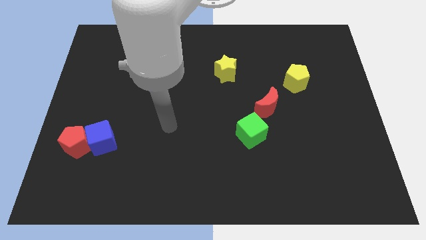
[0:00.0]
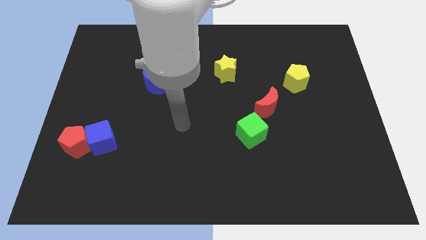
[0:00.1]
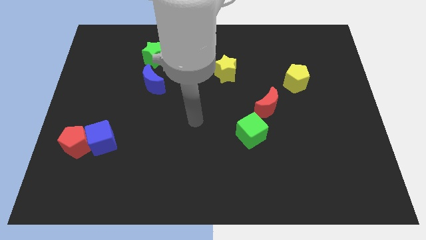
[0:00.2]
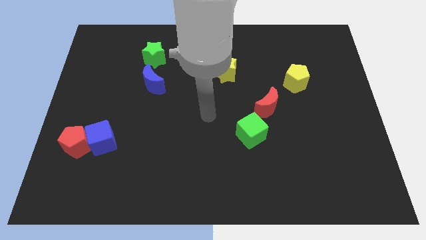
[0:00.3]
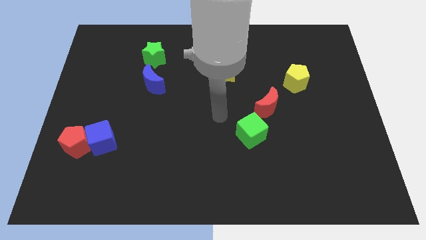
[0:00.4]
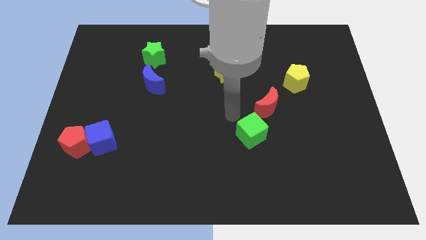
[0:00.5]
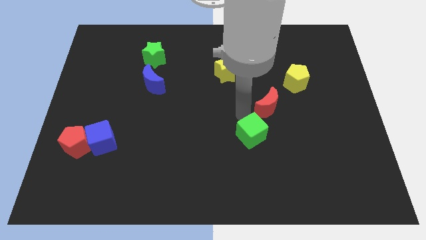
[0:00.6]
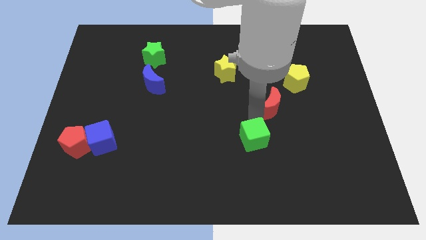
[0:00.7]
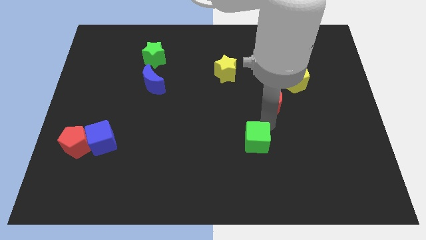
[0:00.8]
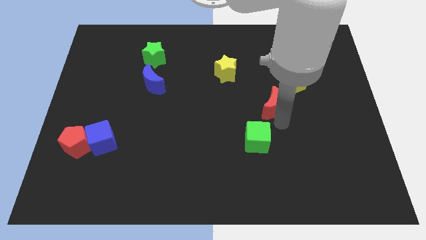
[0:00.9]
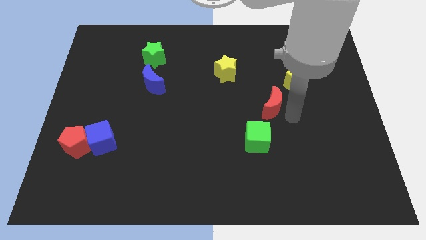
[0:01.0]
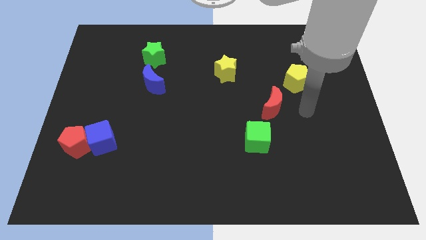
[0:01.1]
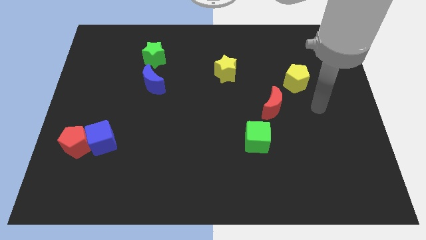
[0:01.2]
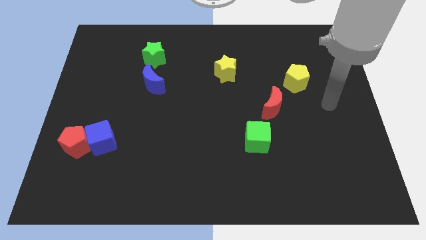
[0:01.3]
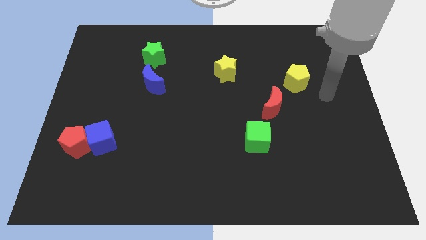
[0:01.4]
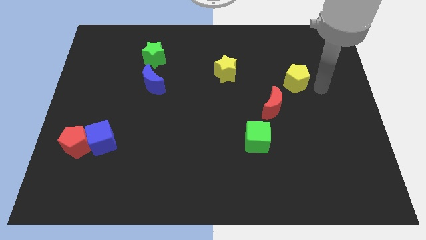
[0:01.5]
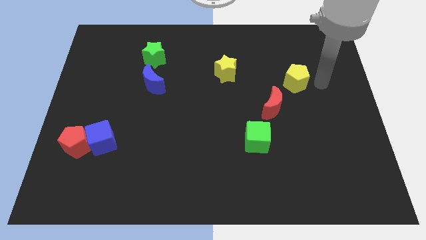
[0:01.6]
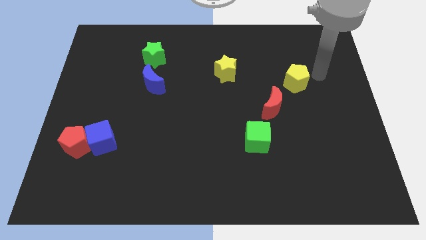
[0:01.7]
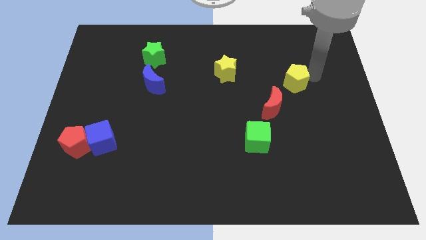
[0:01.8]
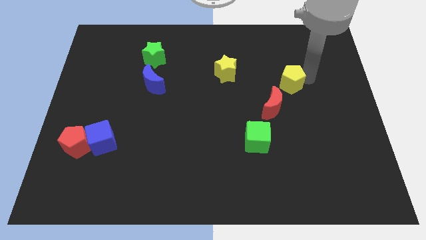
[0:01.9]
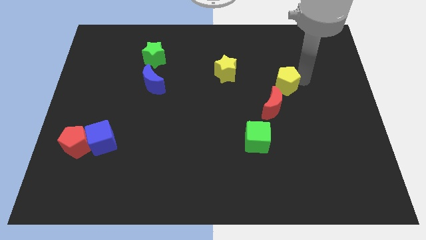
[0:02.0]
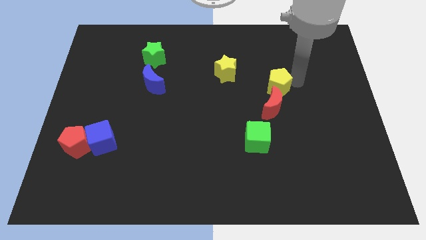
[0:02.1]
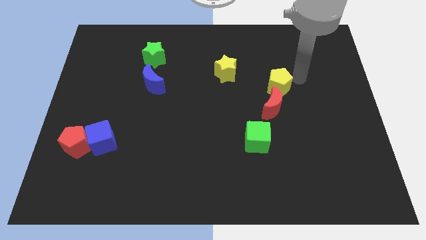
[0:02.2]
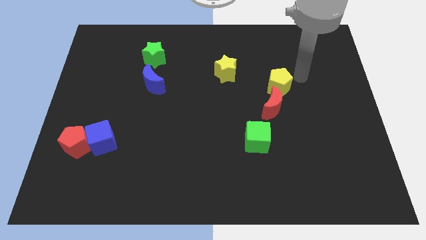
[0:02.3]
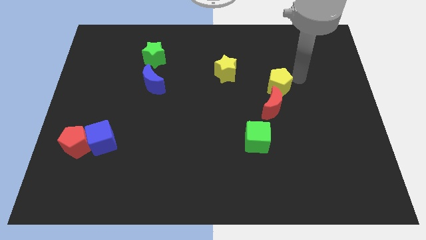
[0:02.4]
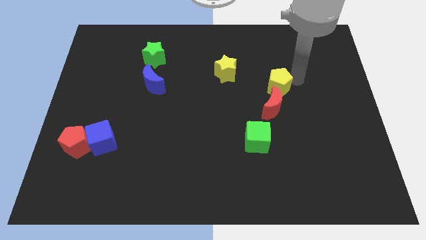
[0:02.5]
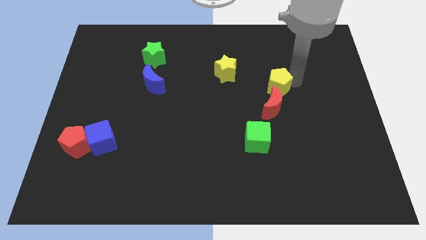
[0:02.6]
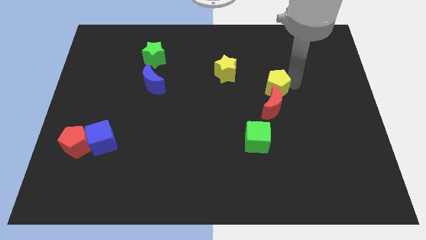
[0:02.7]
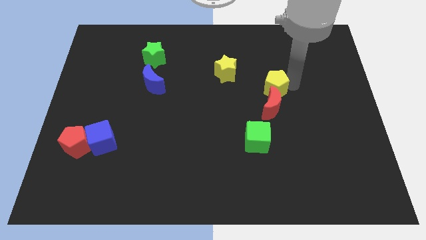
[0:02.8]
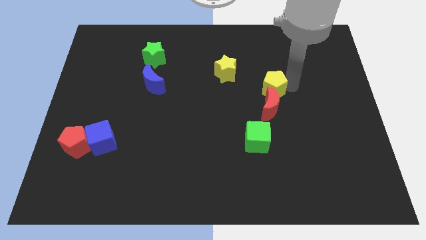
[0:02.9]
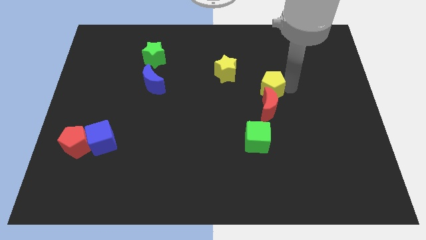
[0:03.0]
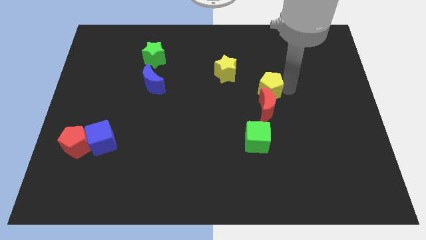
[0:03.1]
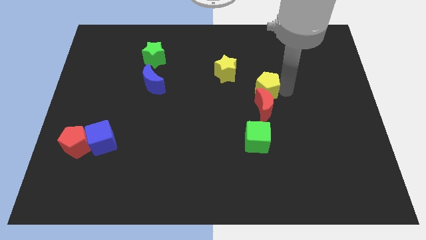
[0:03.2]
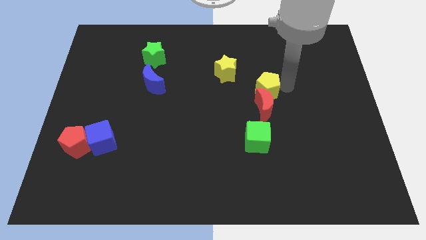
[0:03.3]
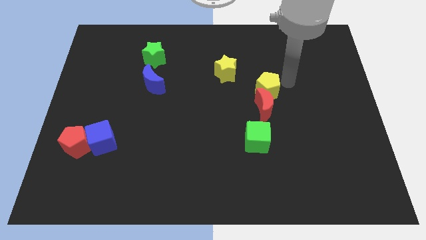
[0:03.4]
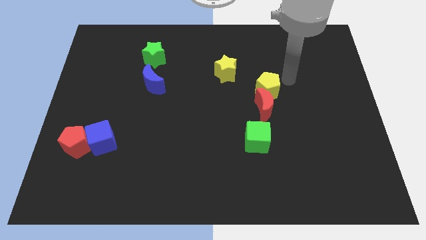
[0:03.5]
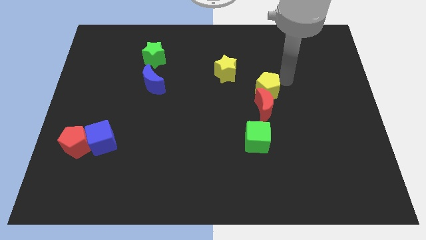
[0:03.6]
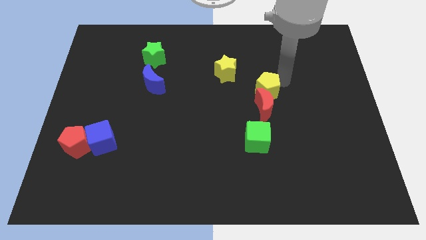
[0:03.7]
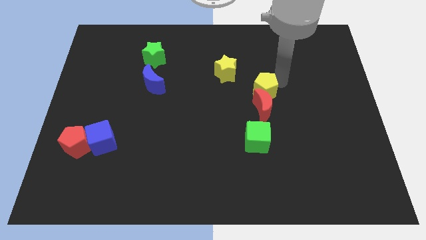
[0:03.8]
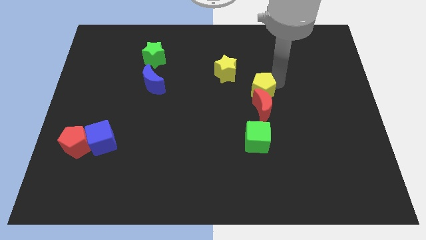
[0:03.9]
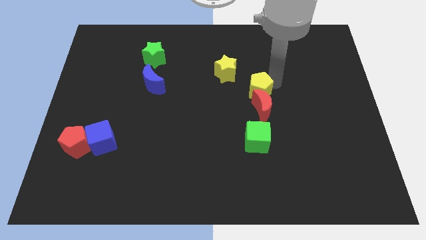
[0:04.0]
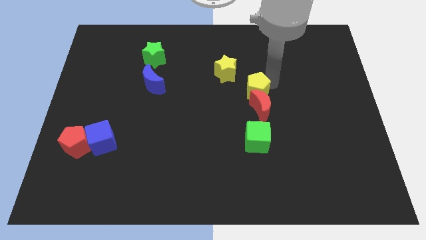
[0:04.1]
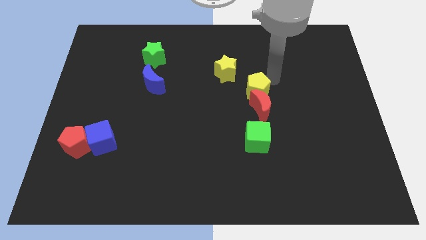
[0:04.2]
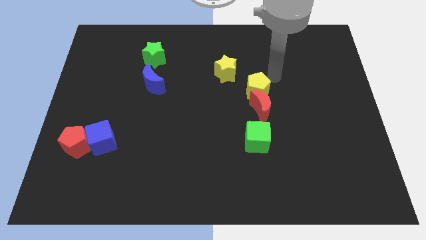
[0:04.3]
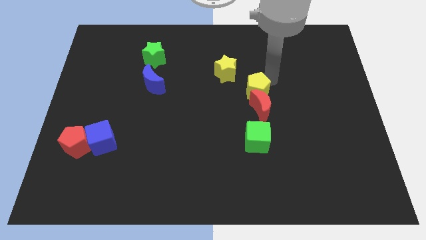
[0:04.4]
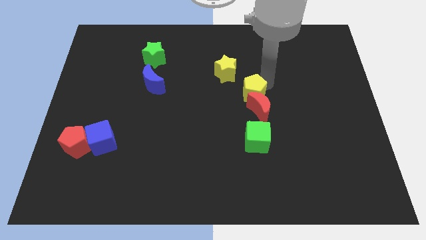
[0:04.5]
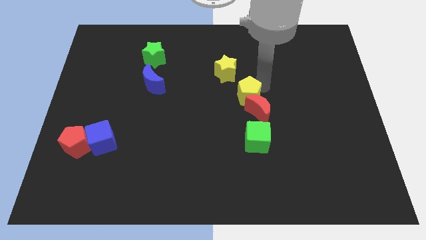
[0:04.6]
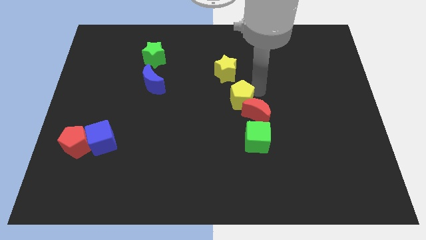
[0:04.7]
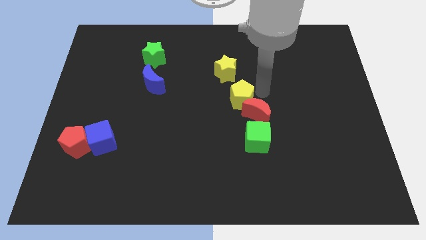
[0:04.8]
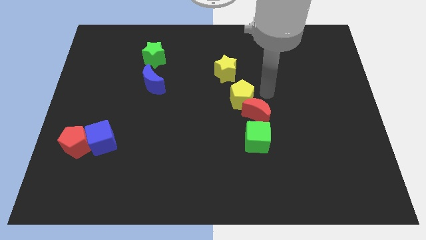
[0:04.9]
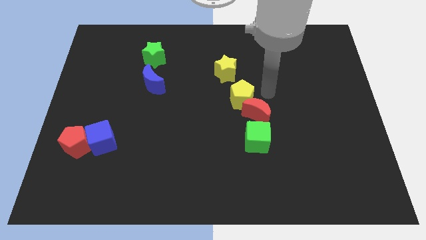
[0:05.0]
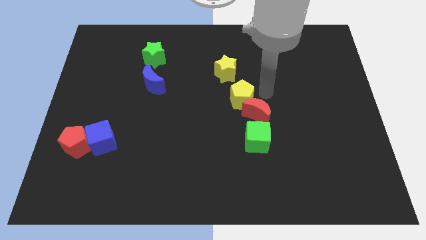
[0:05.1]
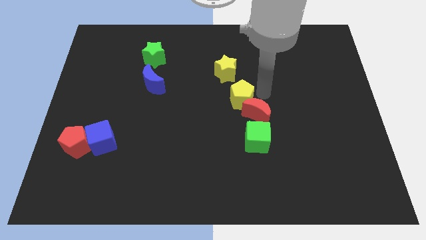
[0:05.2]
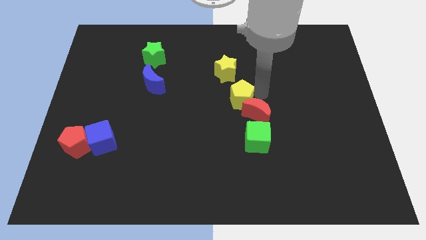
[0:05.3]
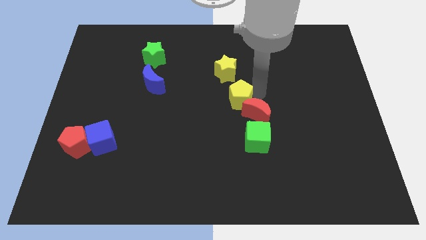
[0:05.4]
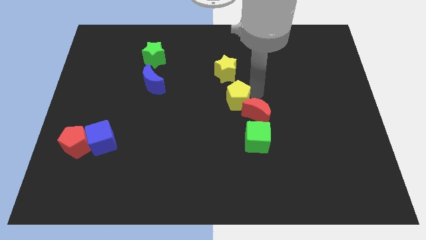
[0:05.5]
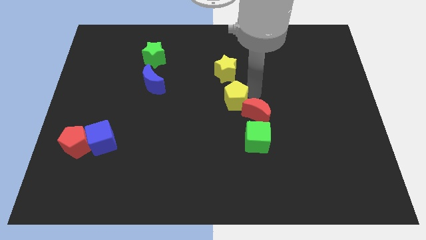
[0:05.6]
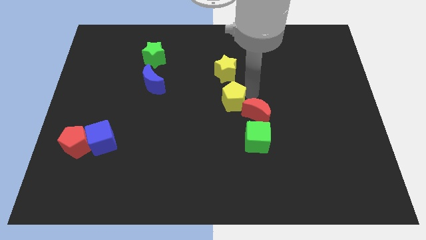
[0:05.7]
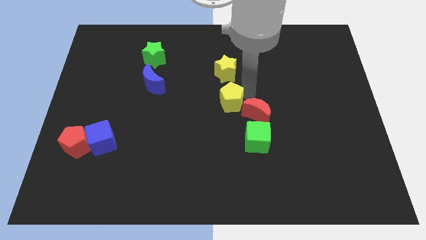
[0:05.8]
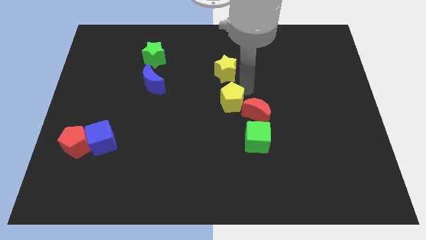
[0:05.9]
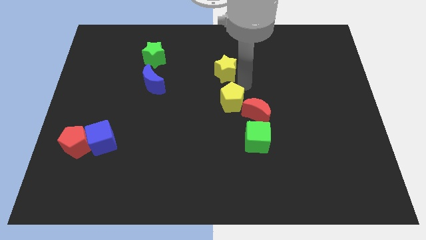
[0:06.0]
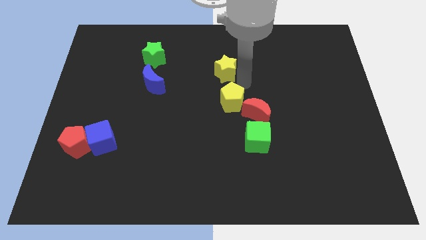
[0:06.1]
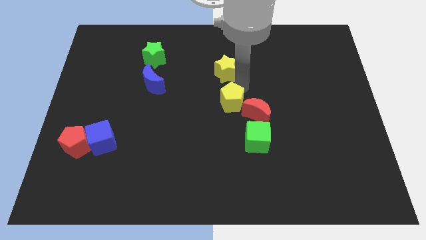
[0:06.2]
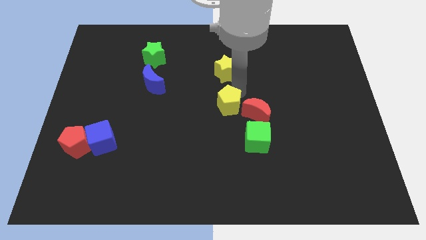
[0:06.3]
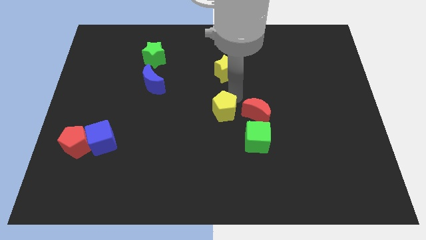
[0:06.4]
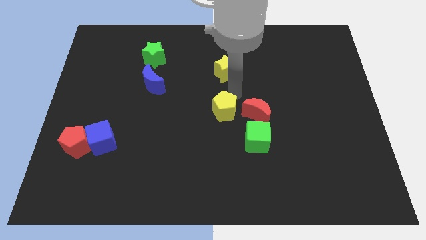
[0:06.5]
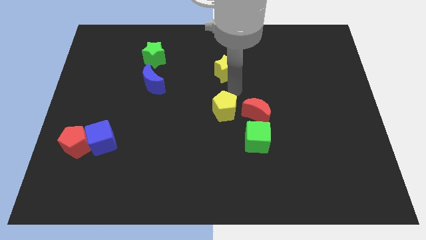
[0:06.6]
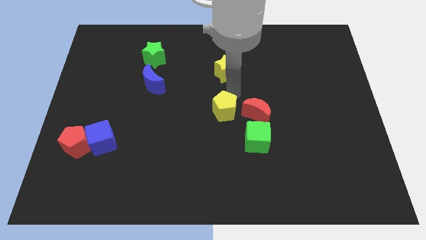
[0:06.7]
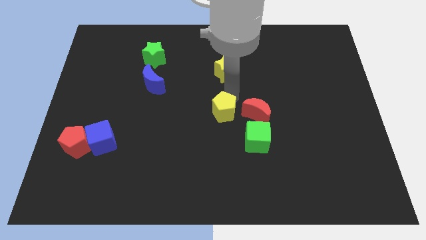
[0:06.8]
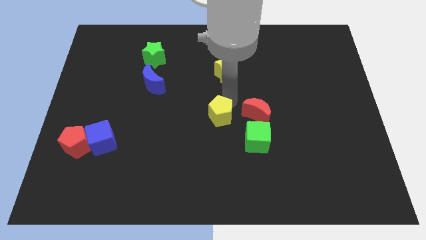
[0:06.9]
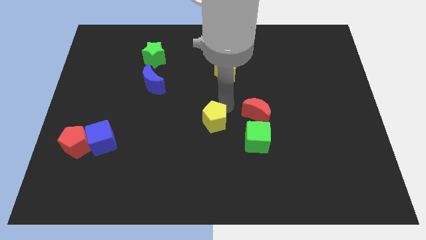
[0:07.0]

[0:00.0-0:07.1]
push the yellow pentagon downwards and left diagonally

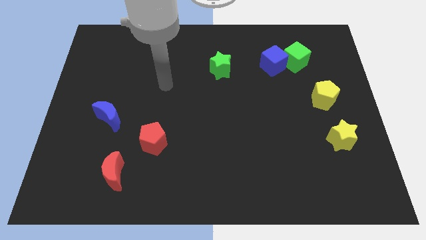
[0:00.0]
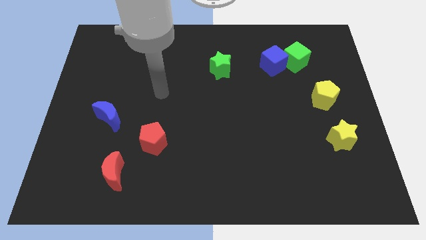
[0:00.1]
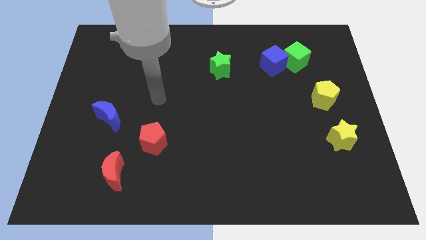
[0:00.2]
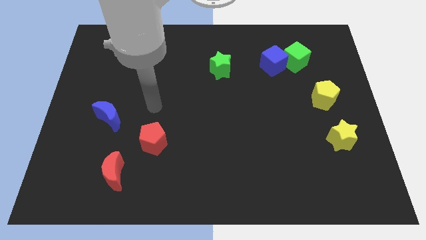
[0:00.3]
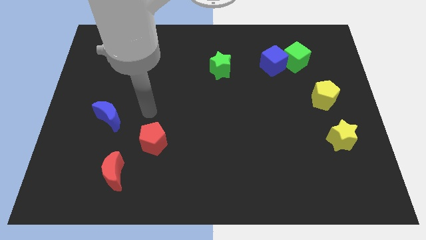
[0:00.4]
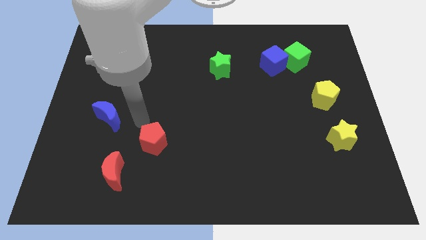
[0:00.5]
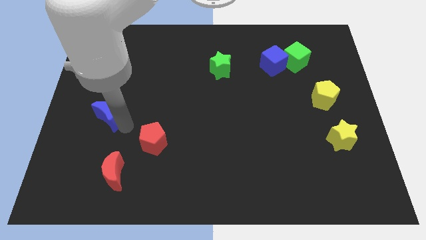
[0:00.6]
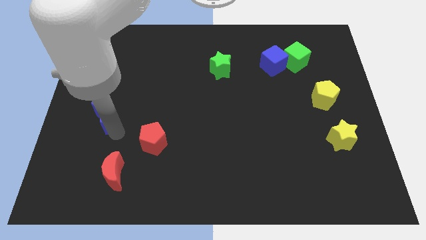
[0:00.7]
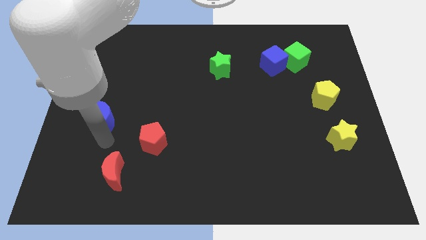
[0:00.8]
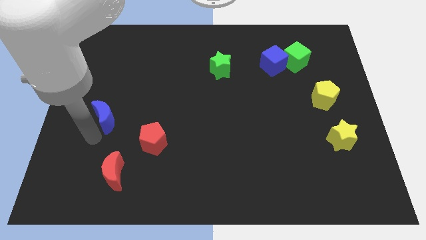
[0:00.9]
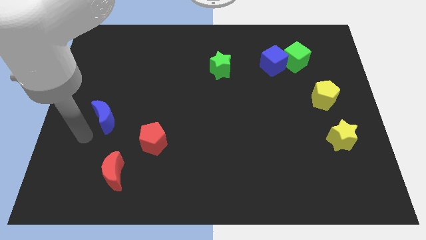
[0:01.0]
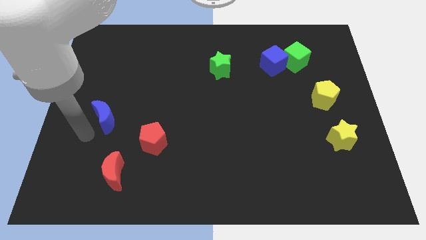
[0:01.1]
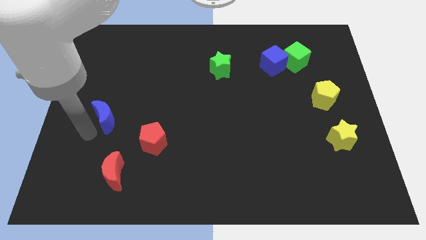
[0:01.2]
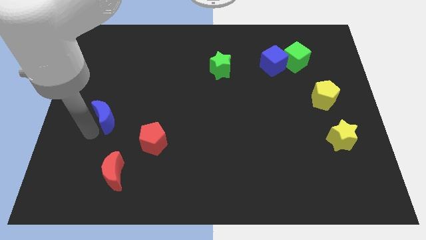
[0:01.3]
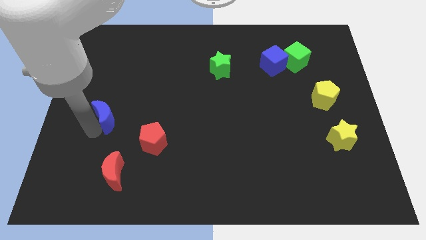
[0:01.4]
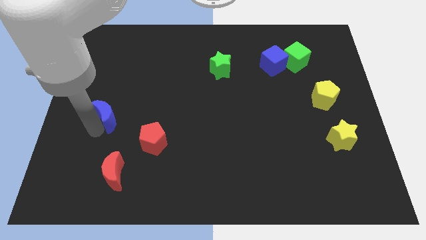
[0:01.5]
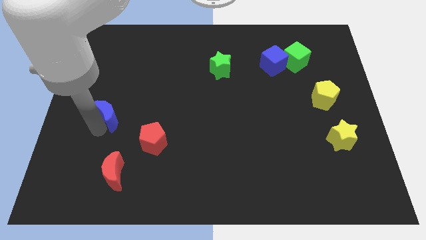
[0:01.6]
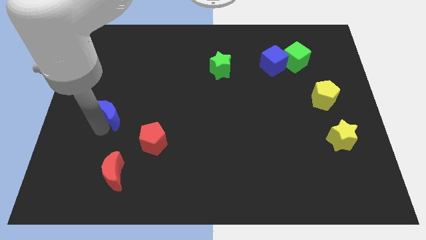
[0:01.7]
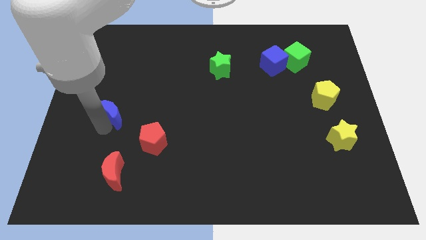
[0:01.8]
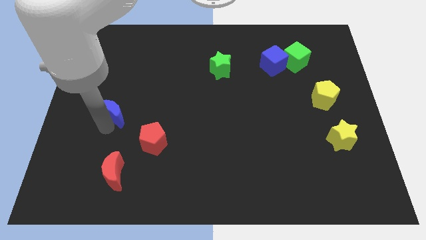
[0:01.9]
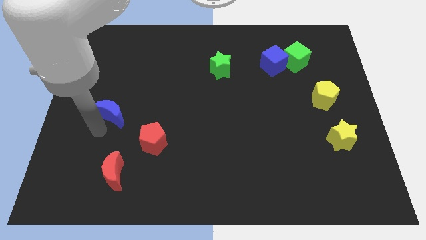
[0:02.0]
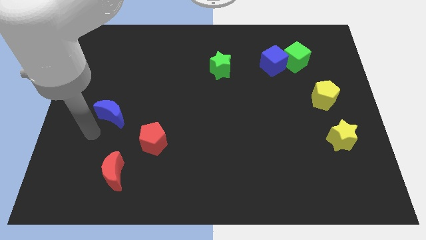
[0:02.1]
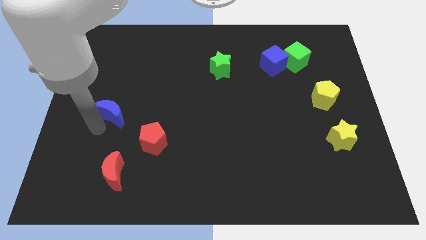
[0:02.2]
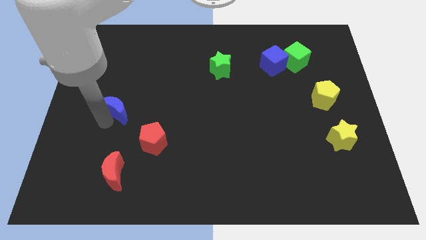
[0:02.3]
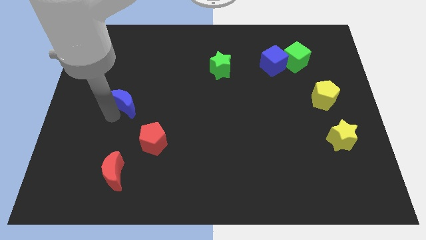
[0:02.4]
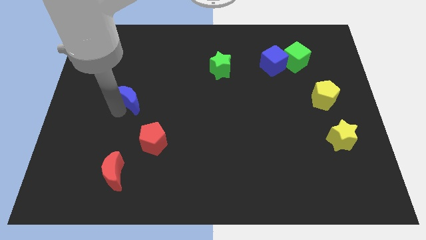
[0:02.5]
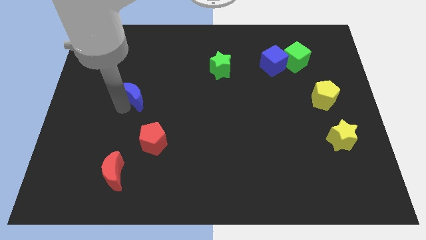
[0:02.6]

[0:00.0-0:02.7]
slightly push the blue moon diagonally up and to the right
